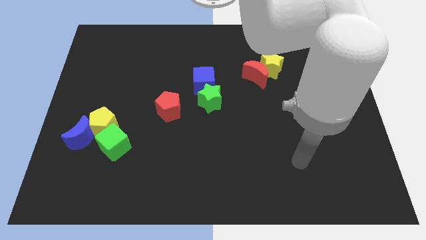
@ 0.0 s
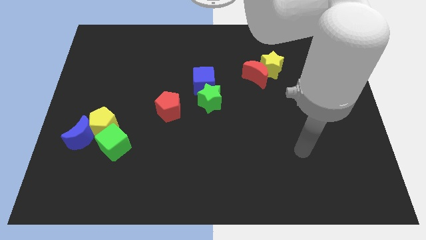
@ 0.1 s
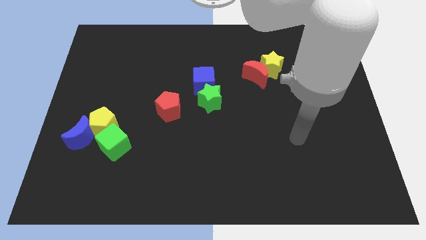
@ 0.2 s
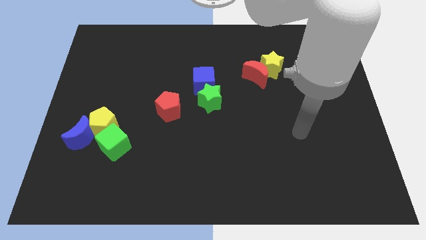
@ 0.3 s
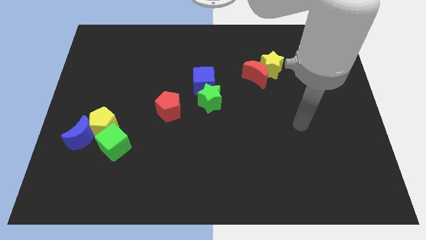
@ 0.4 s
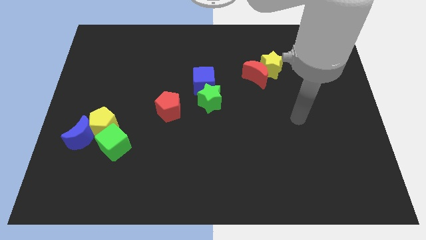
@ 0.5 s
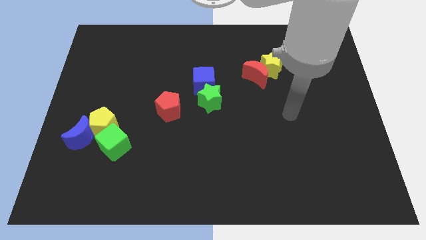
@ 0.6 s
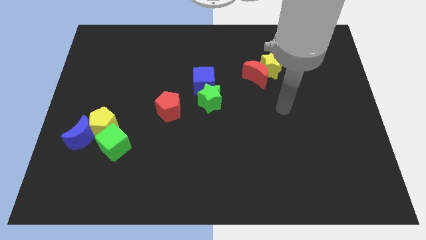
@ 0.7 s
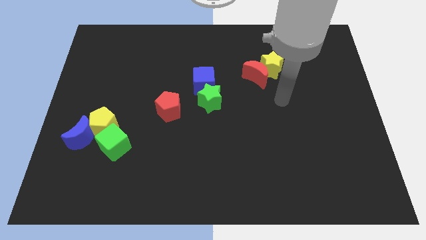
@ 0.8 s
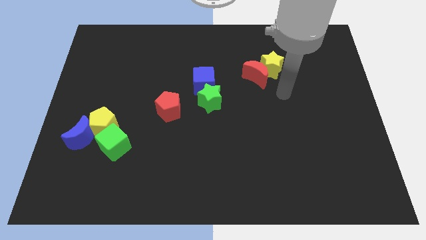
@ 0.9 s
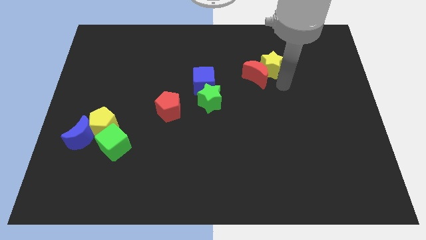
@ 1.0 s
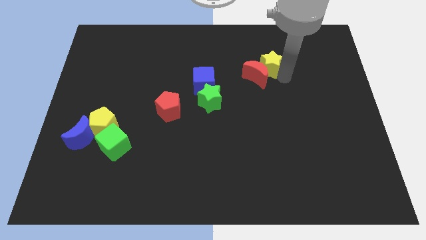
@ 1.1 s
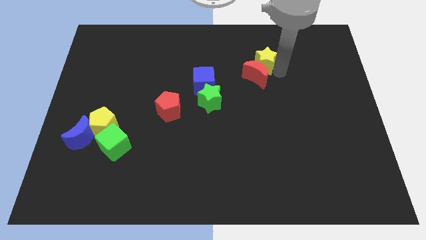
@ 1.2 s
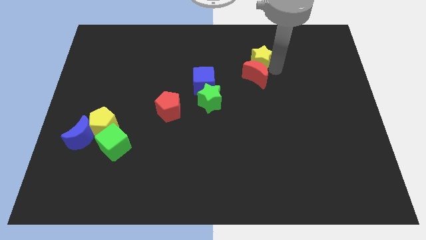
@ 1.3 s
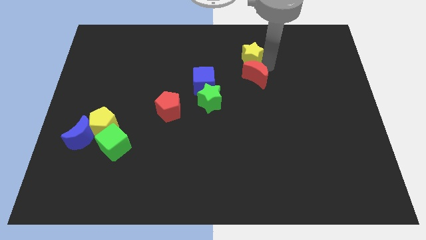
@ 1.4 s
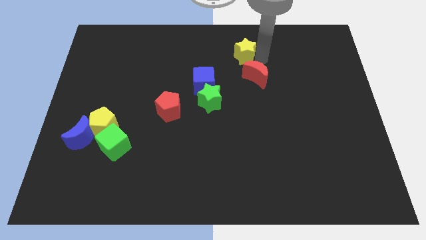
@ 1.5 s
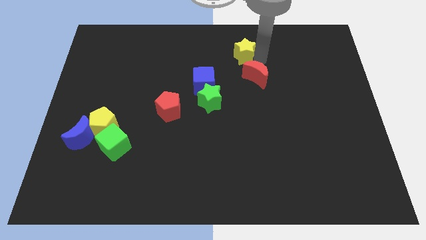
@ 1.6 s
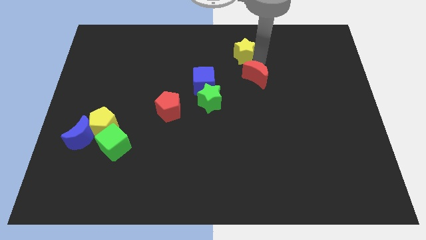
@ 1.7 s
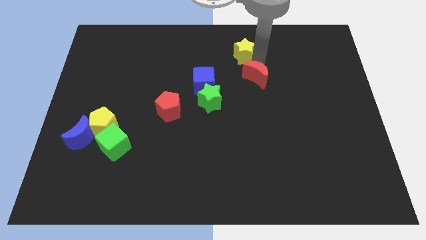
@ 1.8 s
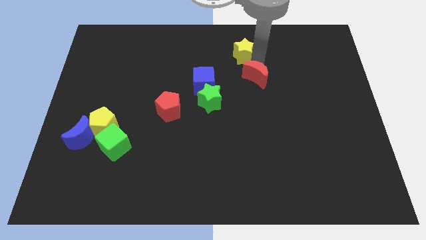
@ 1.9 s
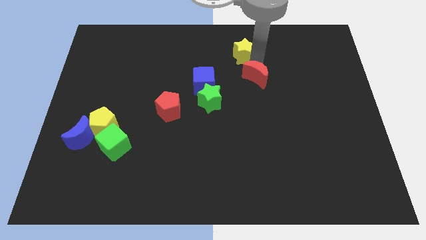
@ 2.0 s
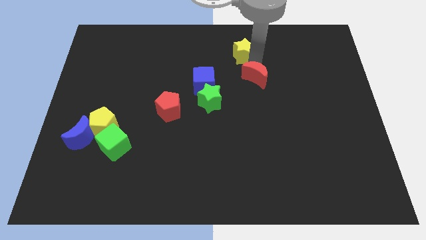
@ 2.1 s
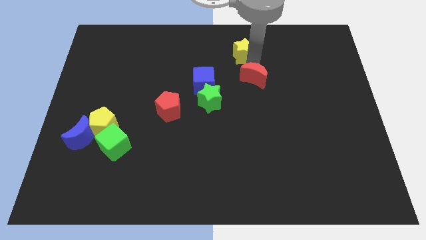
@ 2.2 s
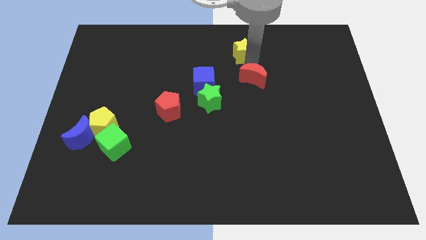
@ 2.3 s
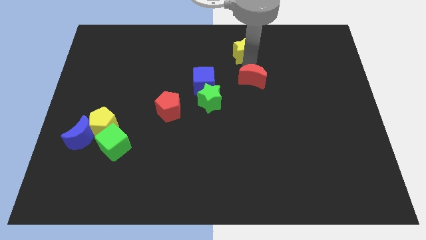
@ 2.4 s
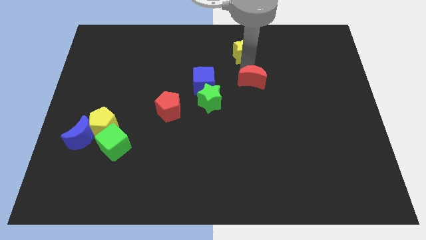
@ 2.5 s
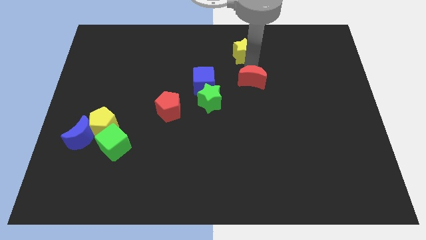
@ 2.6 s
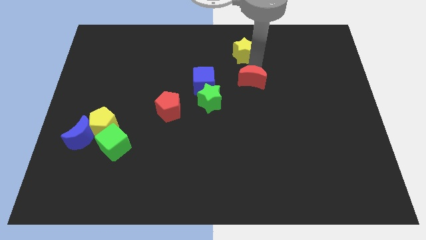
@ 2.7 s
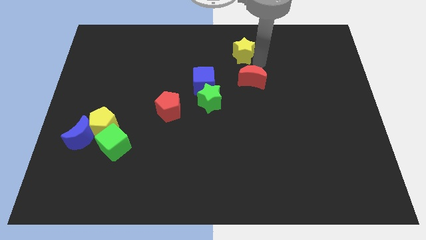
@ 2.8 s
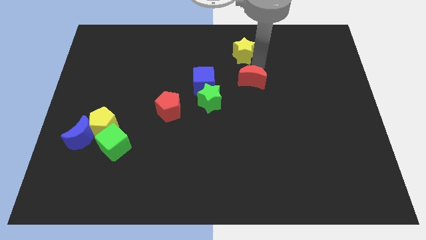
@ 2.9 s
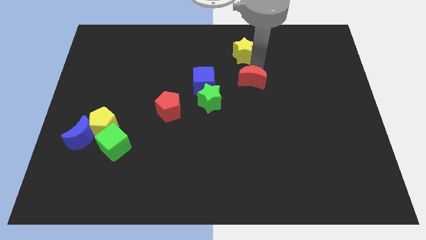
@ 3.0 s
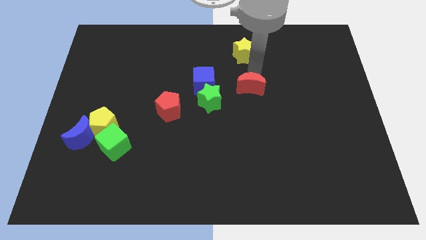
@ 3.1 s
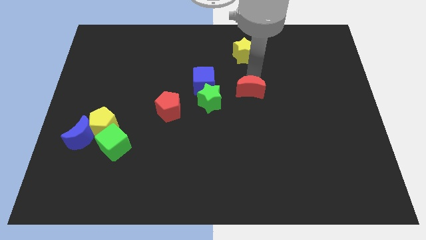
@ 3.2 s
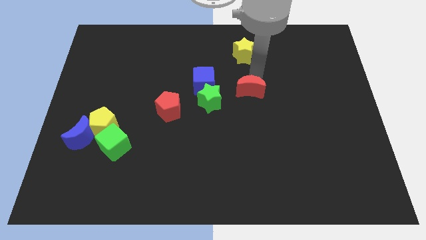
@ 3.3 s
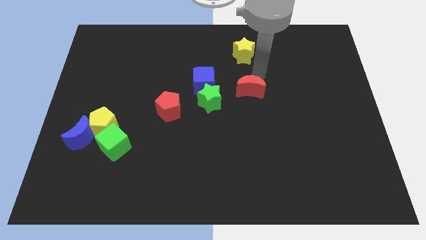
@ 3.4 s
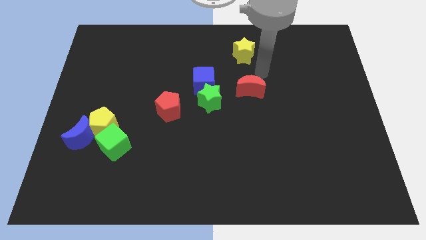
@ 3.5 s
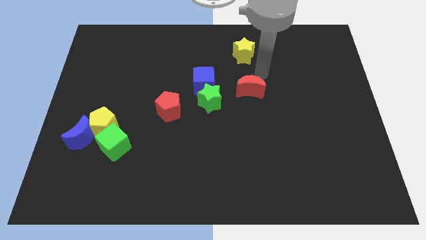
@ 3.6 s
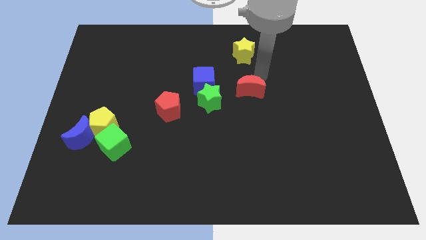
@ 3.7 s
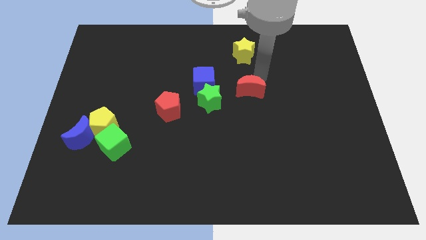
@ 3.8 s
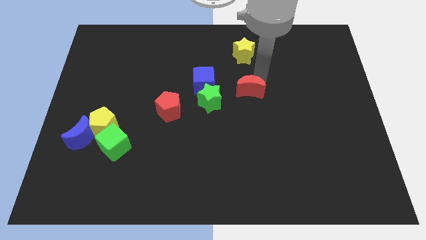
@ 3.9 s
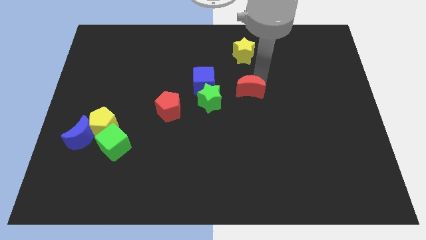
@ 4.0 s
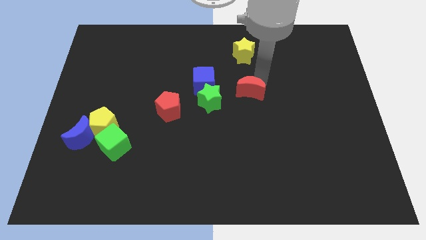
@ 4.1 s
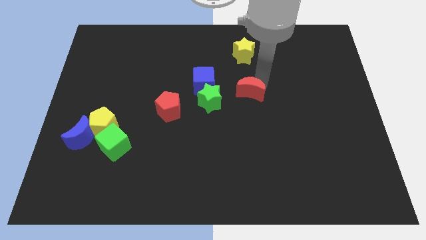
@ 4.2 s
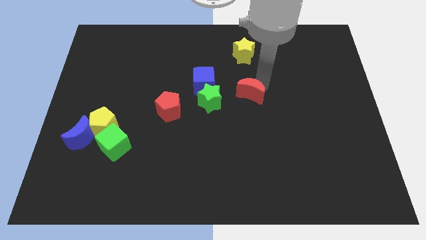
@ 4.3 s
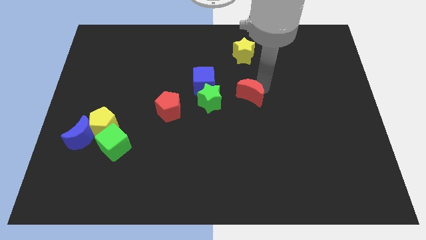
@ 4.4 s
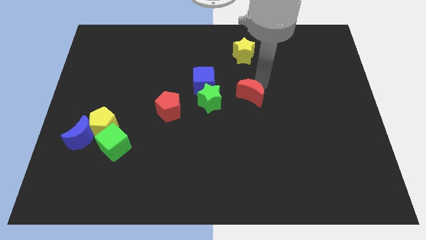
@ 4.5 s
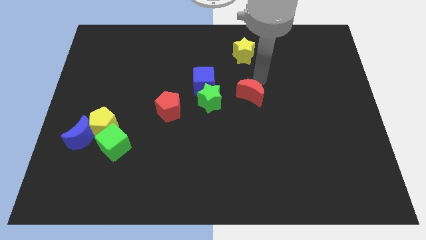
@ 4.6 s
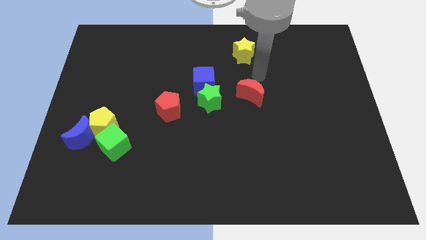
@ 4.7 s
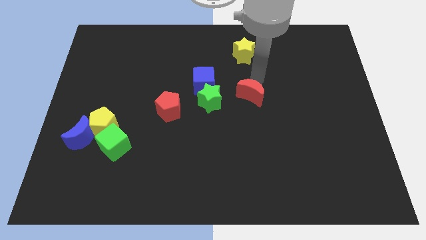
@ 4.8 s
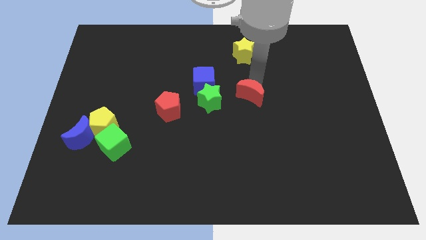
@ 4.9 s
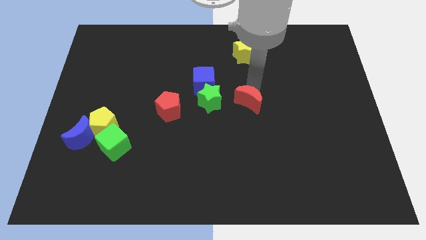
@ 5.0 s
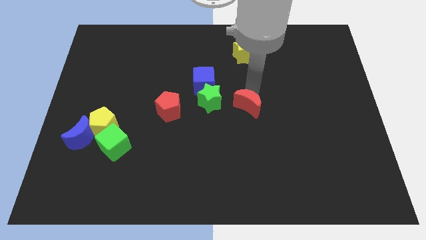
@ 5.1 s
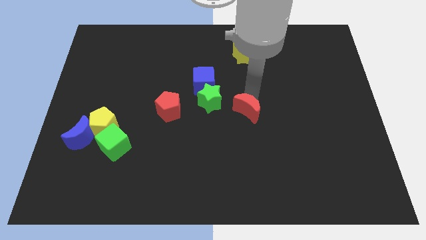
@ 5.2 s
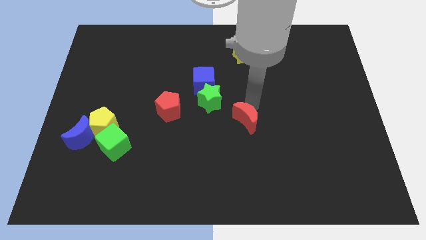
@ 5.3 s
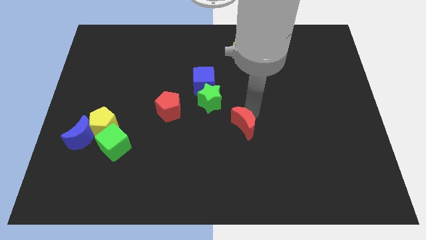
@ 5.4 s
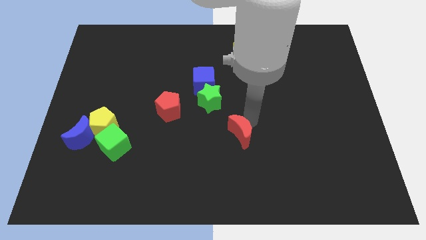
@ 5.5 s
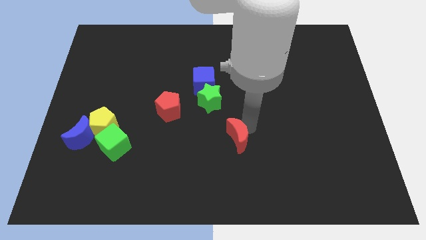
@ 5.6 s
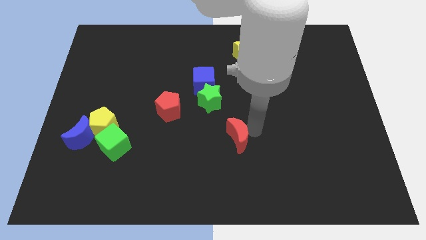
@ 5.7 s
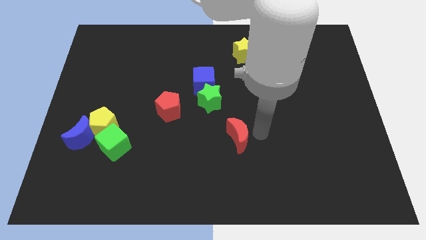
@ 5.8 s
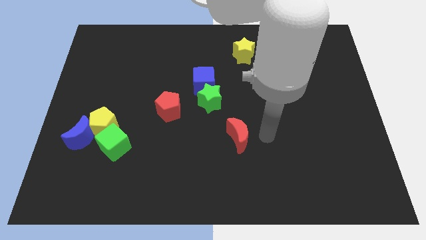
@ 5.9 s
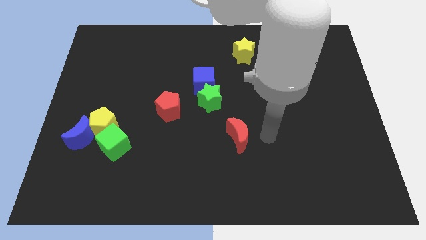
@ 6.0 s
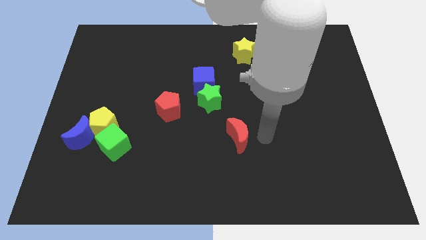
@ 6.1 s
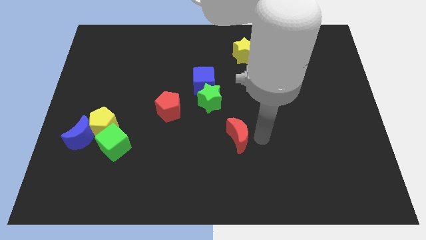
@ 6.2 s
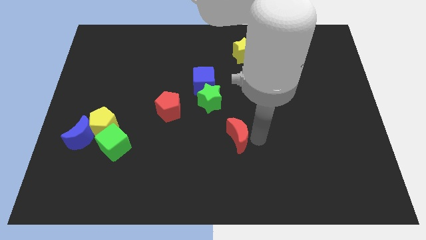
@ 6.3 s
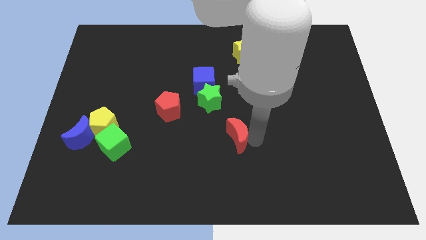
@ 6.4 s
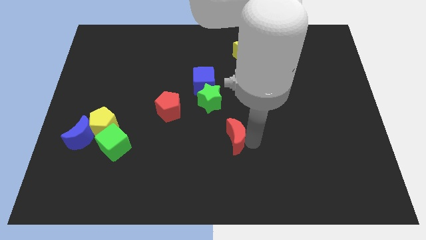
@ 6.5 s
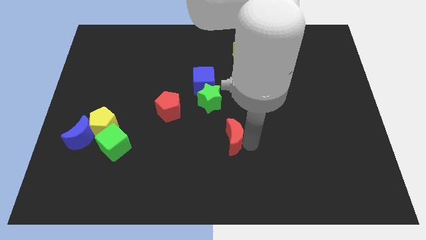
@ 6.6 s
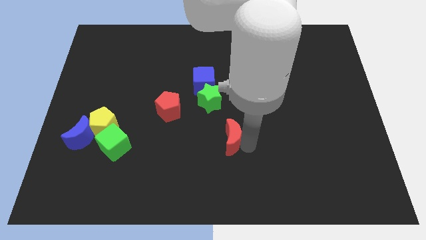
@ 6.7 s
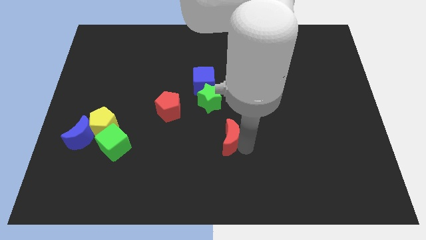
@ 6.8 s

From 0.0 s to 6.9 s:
put the red moon below the green star
